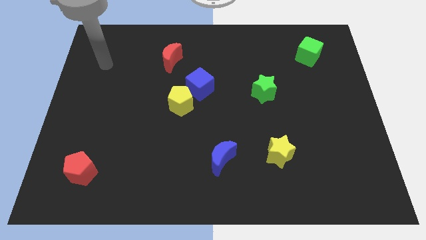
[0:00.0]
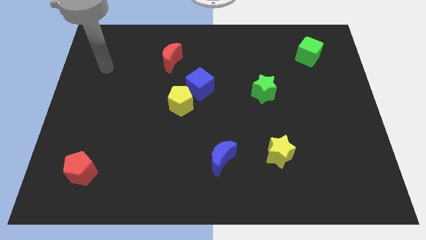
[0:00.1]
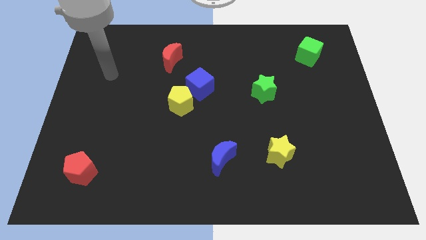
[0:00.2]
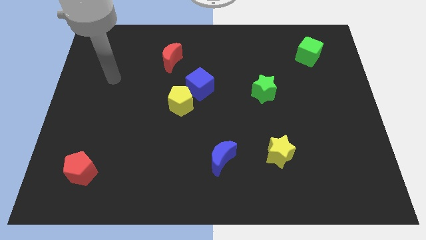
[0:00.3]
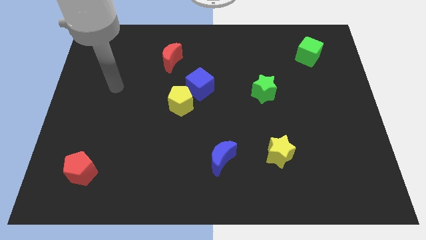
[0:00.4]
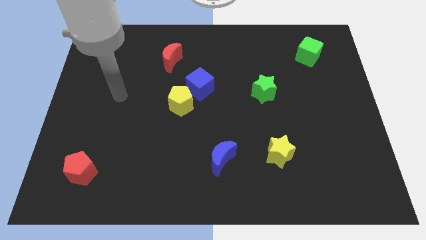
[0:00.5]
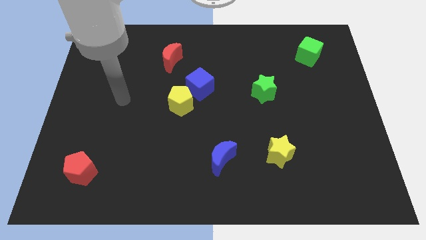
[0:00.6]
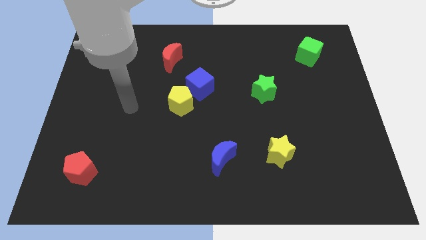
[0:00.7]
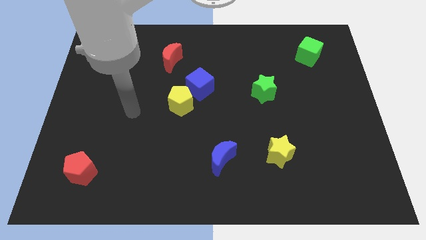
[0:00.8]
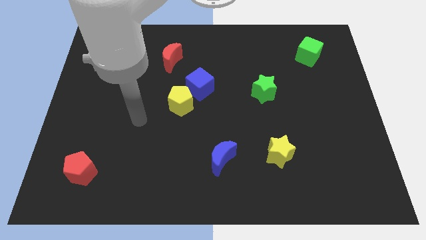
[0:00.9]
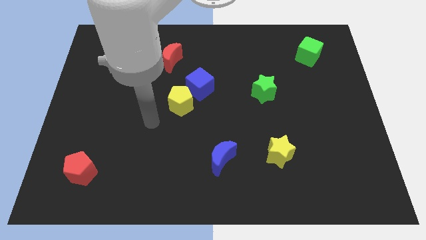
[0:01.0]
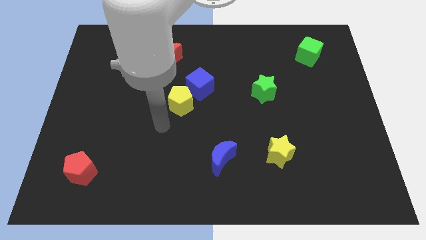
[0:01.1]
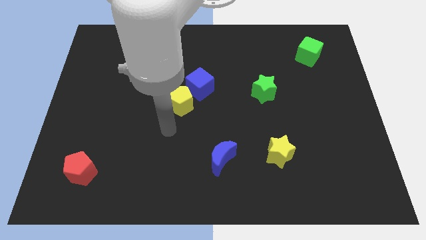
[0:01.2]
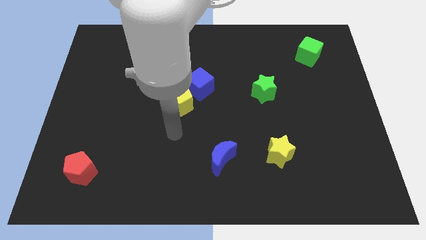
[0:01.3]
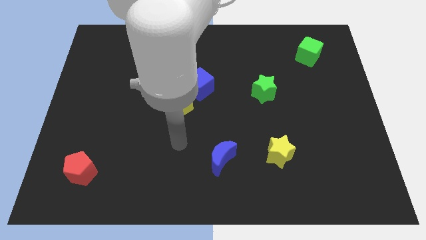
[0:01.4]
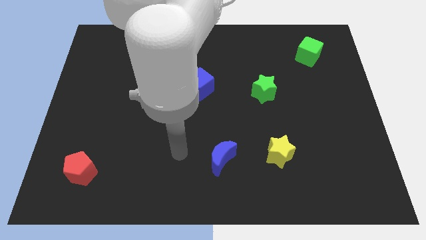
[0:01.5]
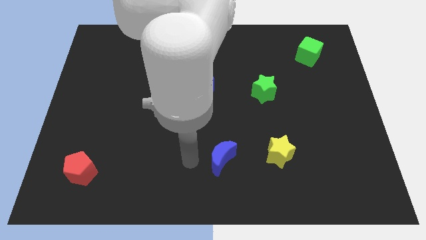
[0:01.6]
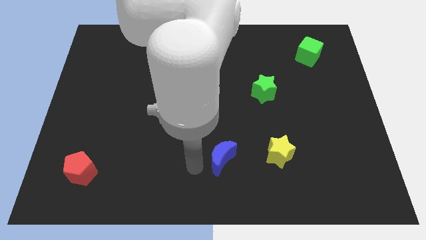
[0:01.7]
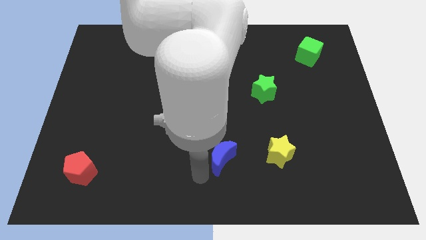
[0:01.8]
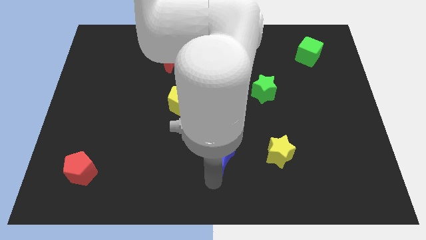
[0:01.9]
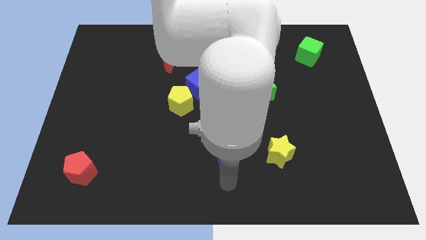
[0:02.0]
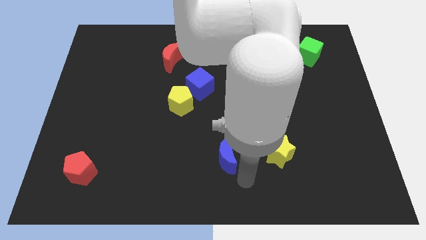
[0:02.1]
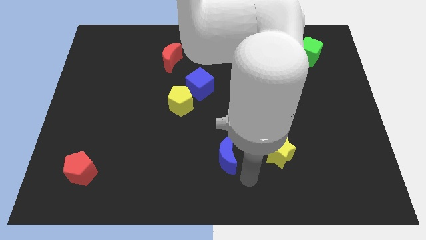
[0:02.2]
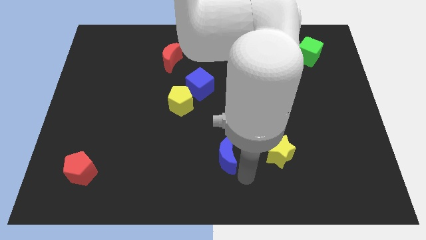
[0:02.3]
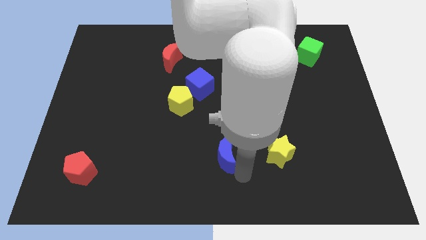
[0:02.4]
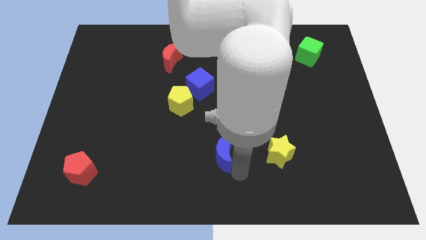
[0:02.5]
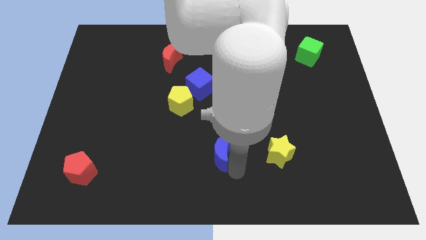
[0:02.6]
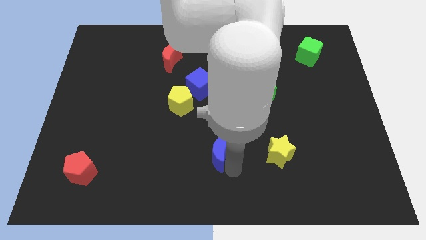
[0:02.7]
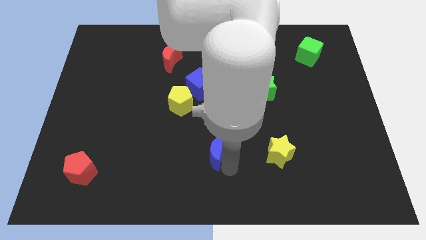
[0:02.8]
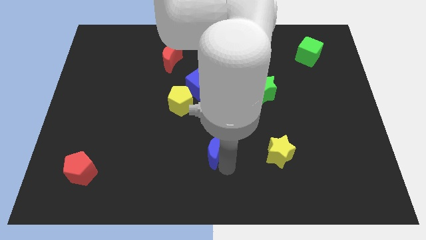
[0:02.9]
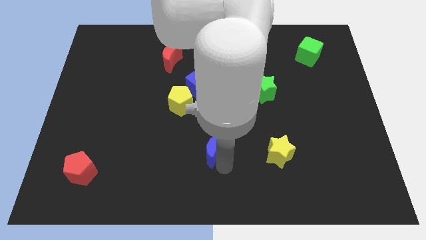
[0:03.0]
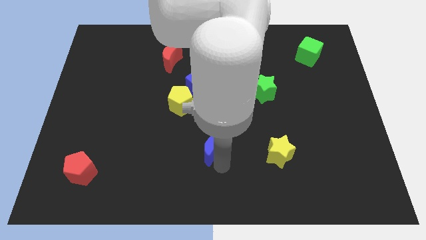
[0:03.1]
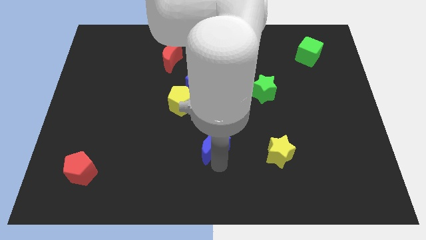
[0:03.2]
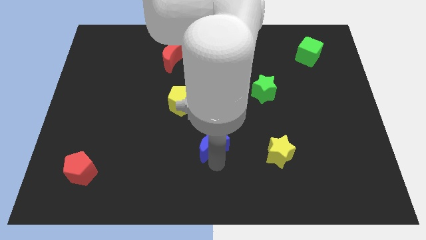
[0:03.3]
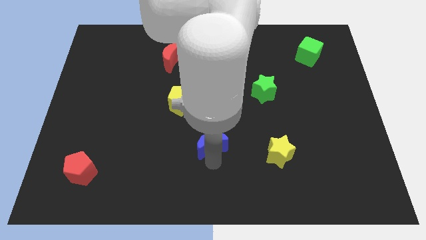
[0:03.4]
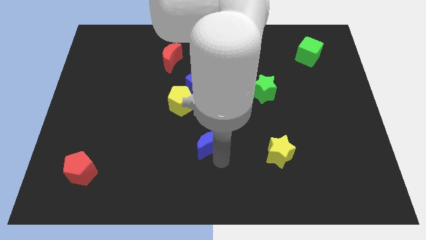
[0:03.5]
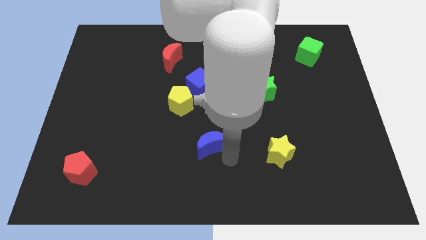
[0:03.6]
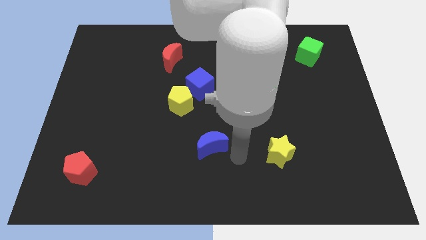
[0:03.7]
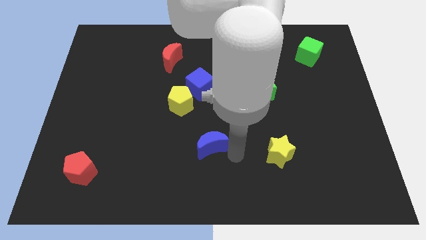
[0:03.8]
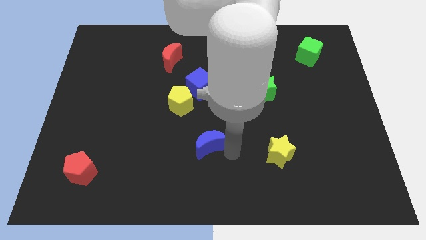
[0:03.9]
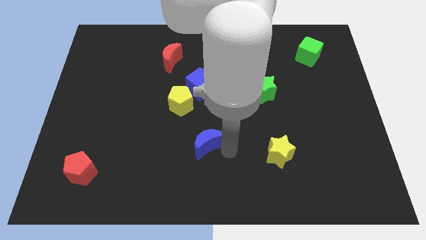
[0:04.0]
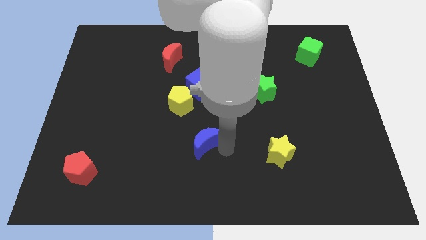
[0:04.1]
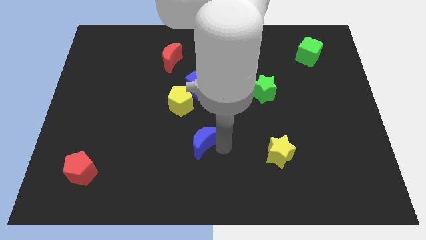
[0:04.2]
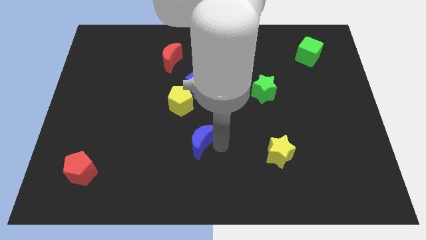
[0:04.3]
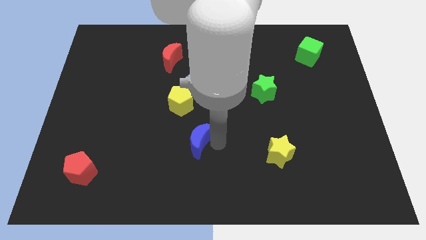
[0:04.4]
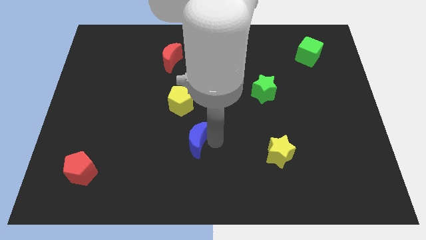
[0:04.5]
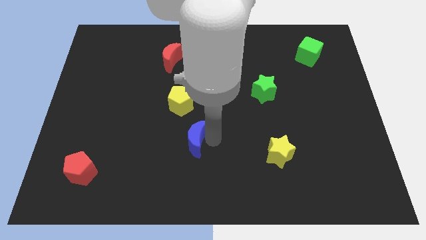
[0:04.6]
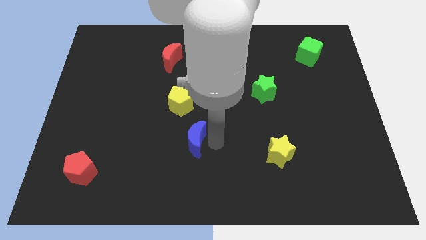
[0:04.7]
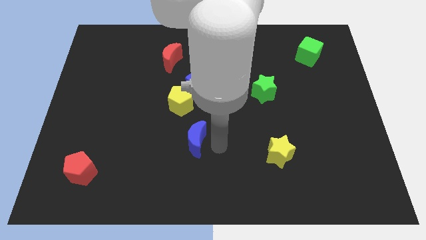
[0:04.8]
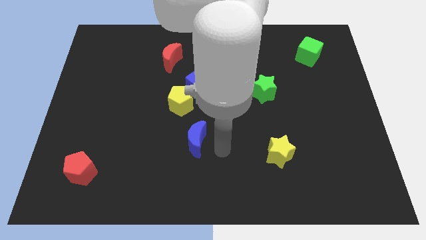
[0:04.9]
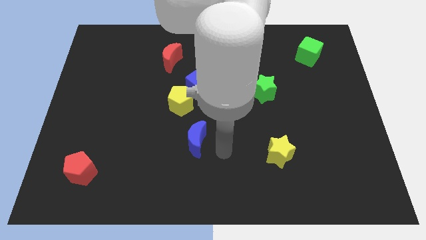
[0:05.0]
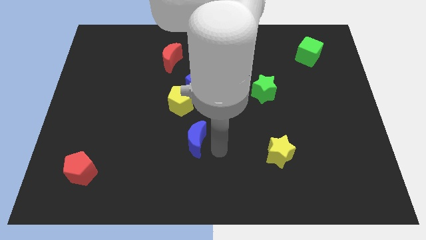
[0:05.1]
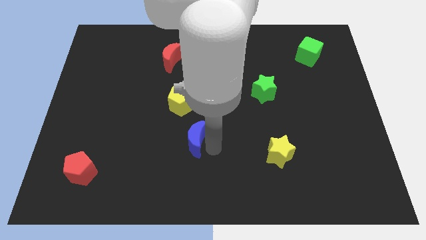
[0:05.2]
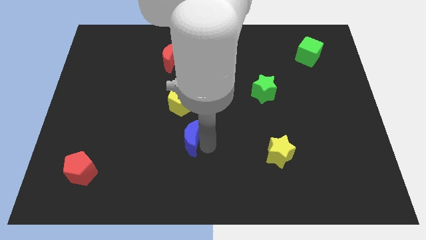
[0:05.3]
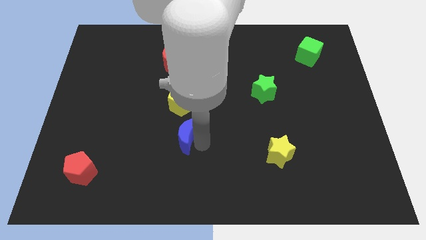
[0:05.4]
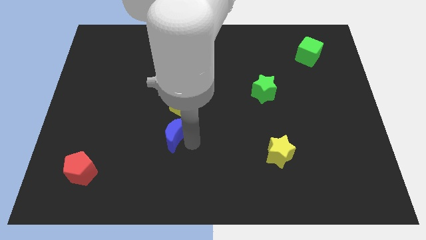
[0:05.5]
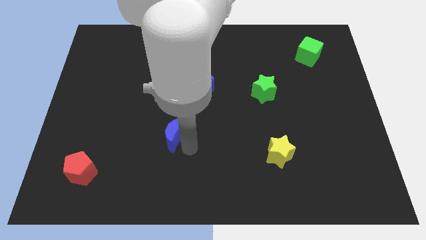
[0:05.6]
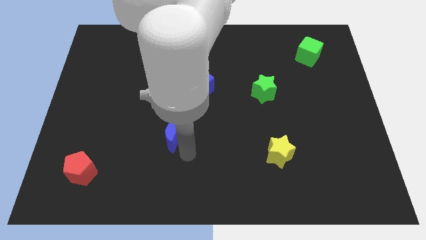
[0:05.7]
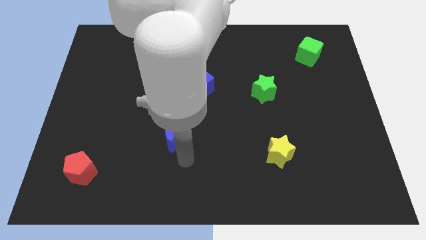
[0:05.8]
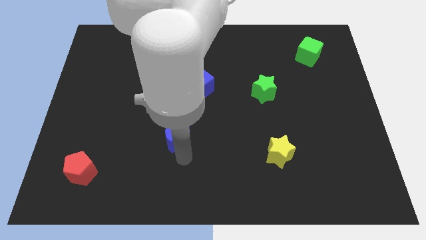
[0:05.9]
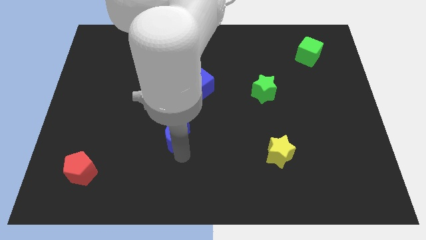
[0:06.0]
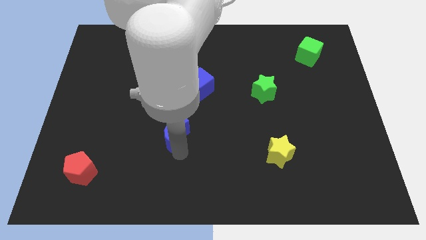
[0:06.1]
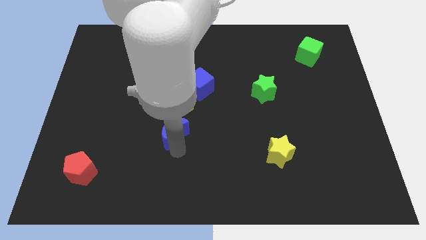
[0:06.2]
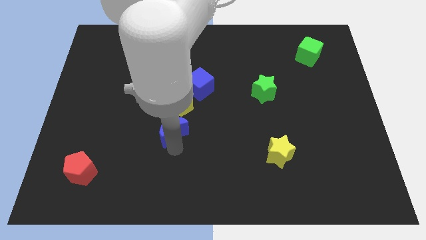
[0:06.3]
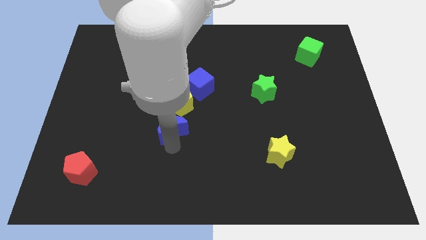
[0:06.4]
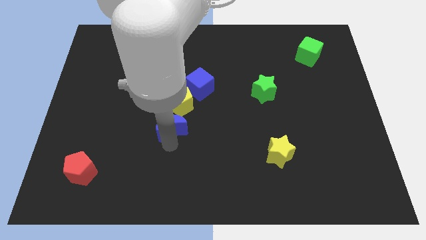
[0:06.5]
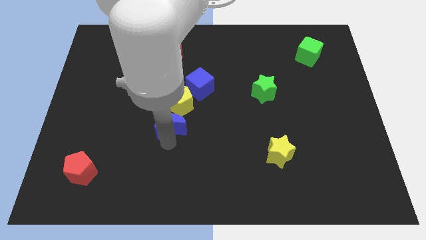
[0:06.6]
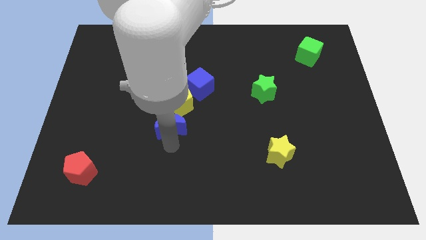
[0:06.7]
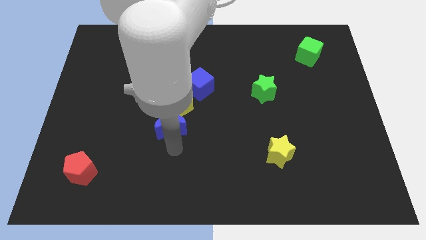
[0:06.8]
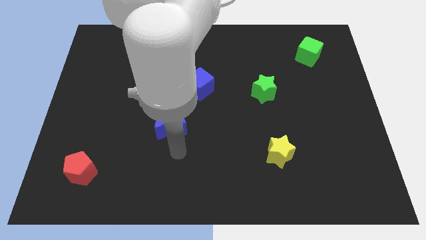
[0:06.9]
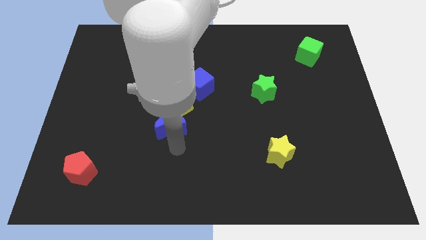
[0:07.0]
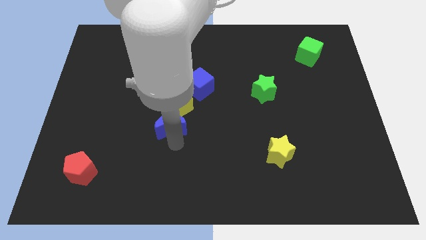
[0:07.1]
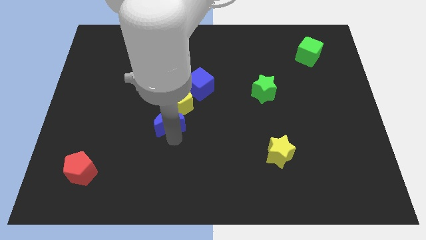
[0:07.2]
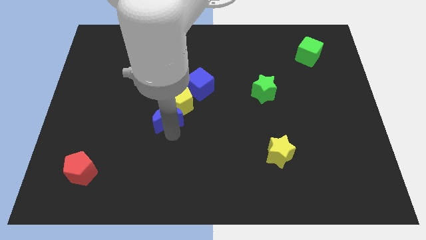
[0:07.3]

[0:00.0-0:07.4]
move the blue moon to the bottom left side of the blue cube
